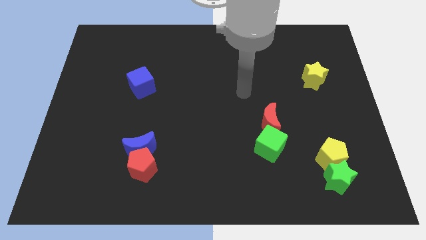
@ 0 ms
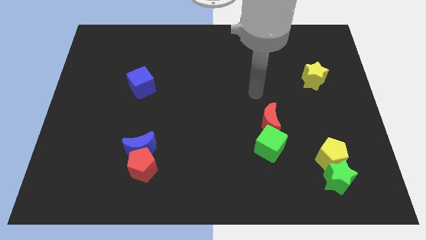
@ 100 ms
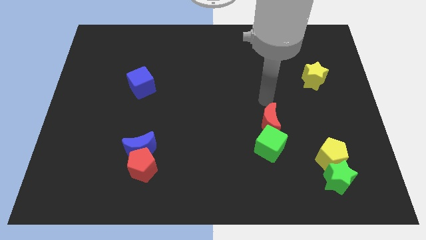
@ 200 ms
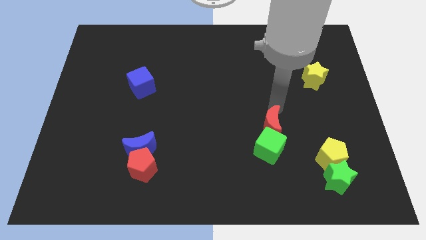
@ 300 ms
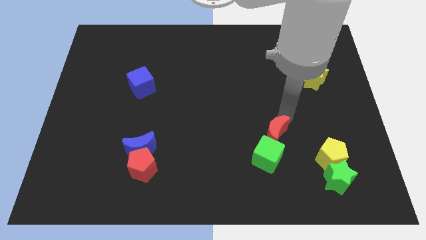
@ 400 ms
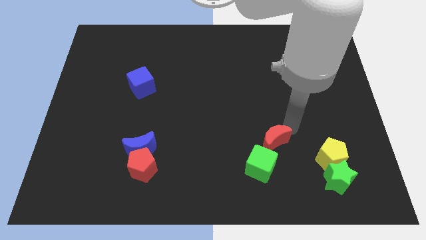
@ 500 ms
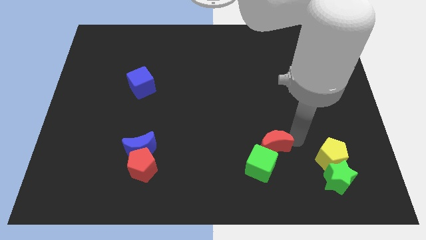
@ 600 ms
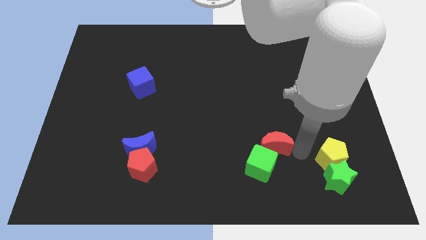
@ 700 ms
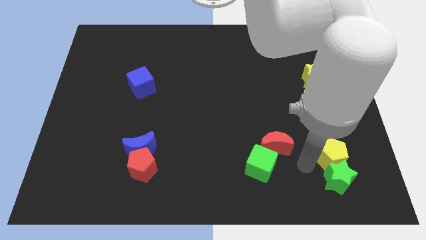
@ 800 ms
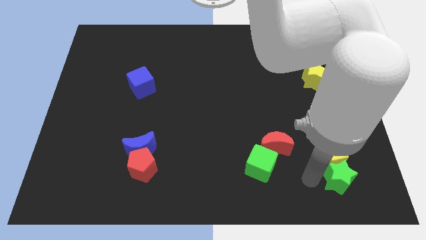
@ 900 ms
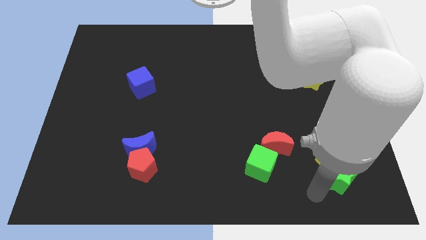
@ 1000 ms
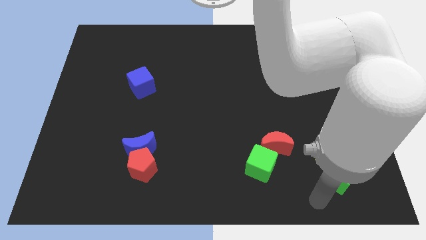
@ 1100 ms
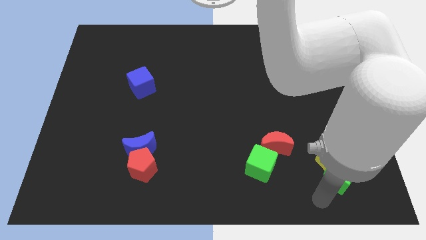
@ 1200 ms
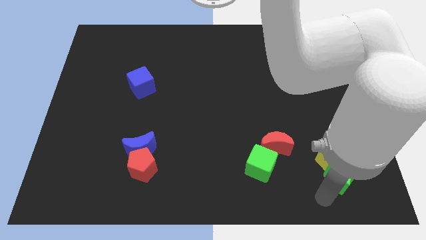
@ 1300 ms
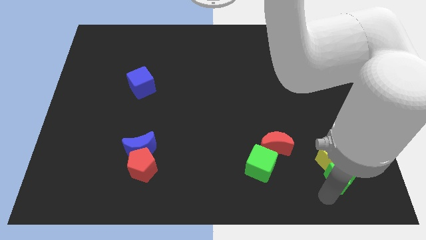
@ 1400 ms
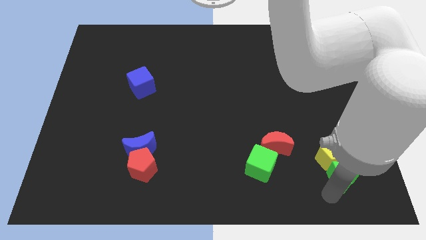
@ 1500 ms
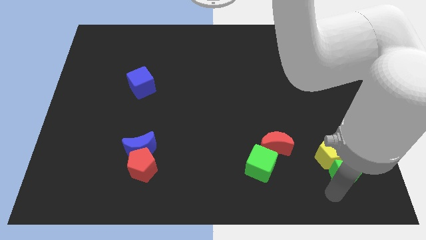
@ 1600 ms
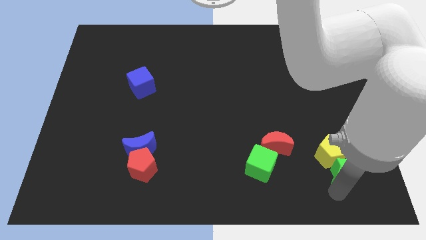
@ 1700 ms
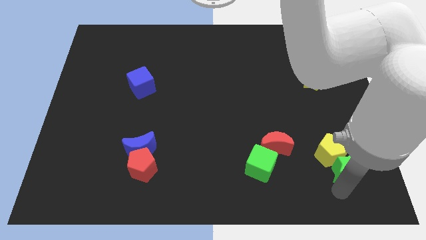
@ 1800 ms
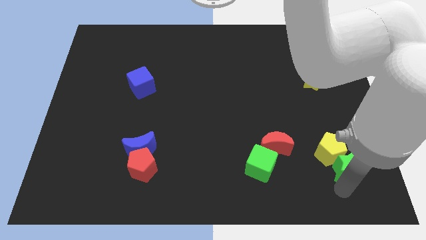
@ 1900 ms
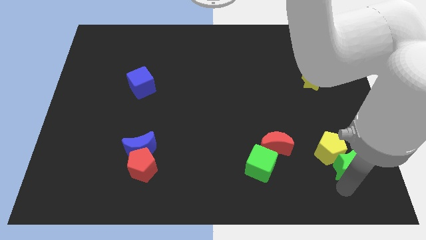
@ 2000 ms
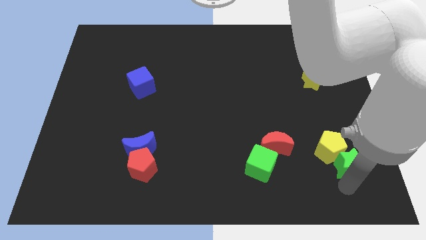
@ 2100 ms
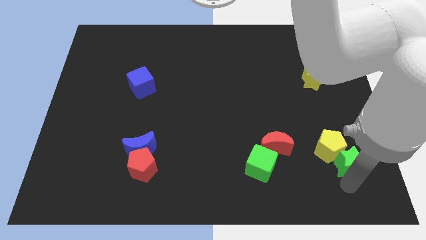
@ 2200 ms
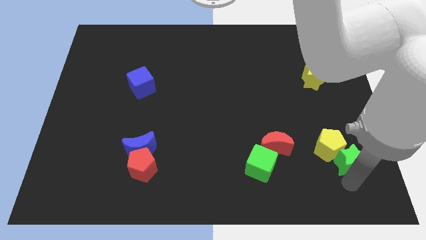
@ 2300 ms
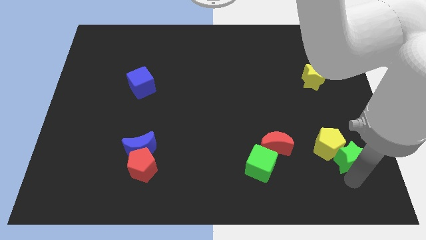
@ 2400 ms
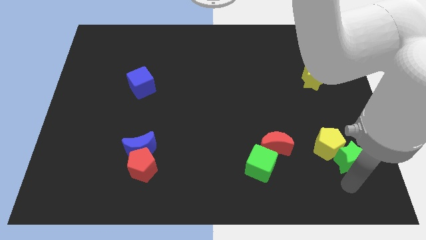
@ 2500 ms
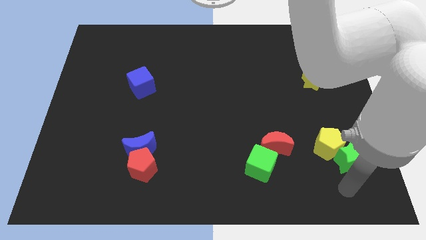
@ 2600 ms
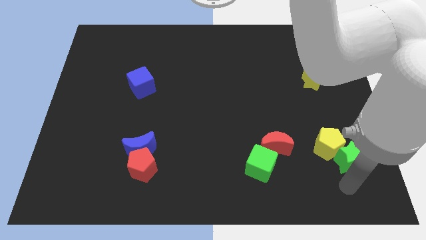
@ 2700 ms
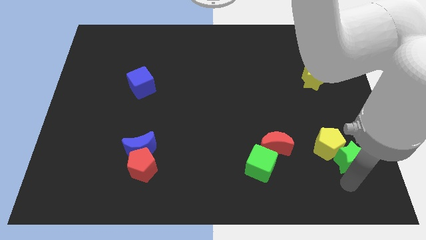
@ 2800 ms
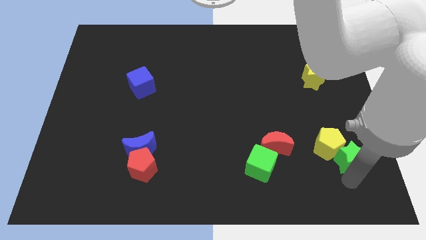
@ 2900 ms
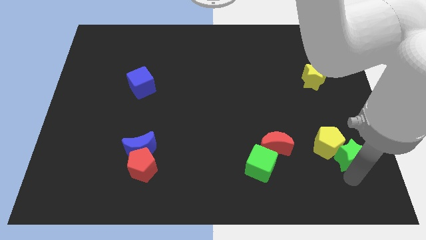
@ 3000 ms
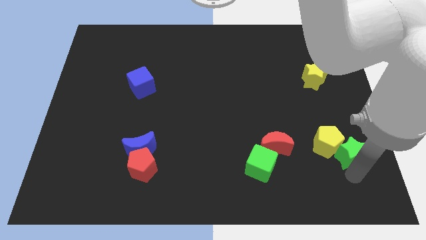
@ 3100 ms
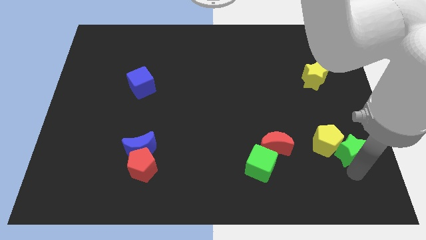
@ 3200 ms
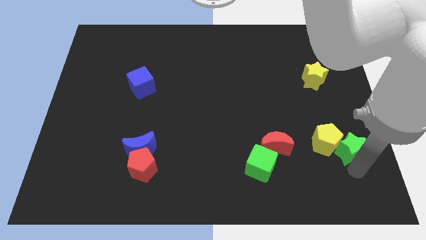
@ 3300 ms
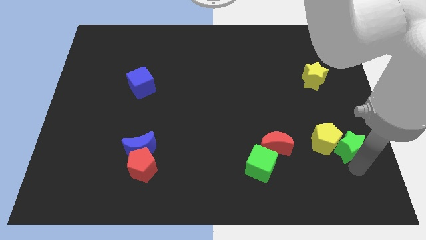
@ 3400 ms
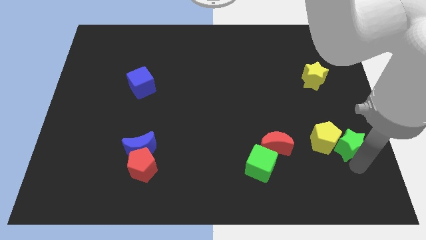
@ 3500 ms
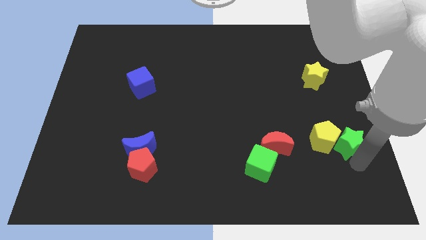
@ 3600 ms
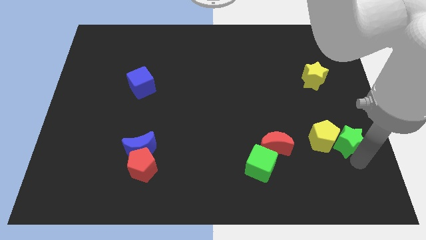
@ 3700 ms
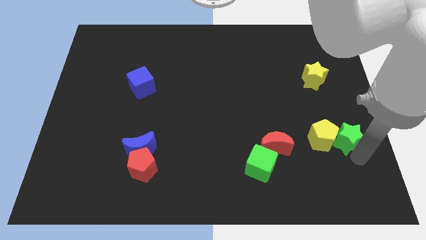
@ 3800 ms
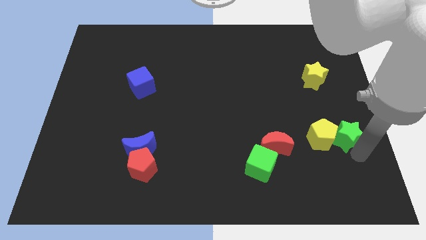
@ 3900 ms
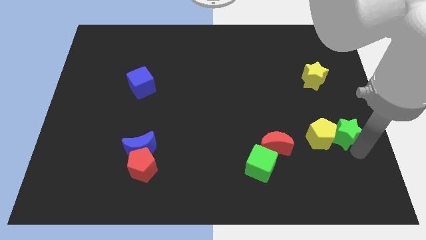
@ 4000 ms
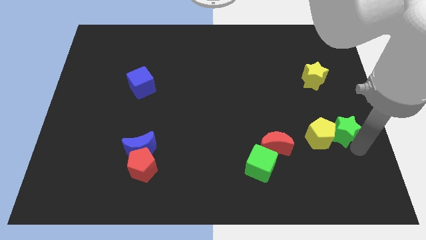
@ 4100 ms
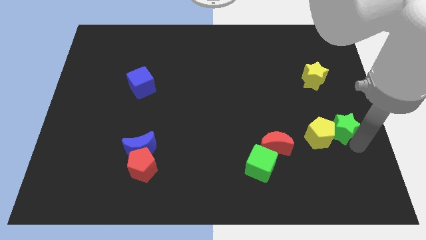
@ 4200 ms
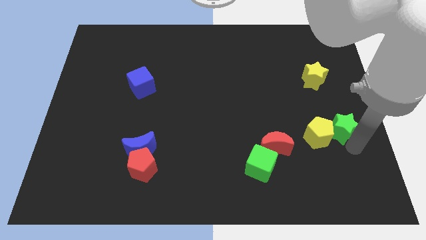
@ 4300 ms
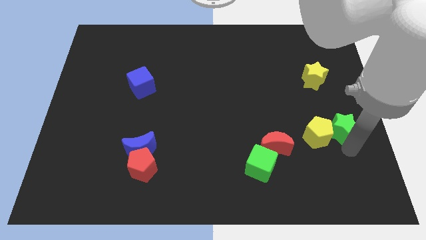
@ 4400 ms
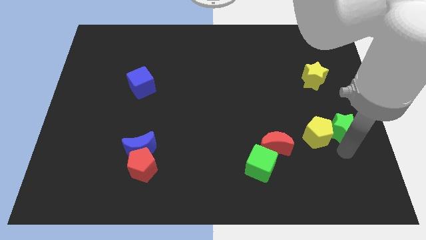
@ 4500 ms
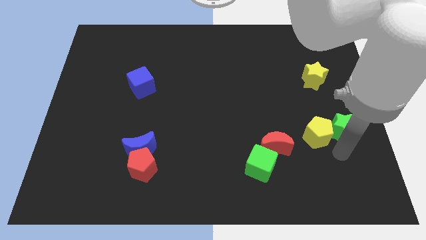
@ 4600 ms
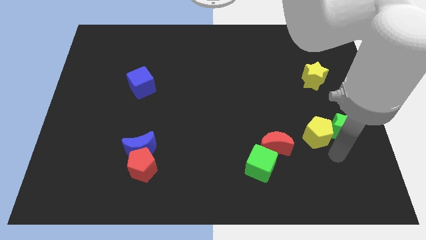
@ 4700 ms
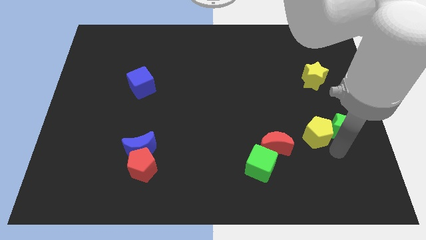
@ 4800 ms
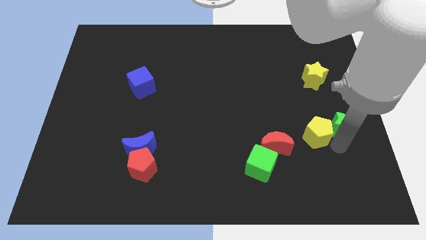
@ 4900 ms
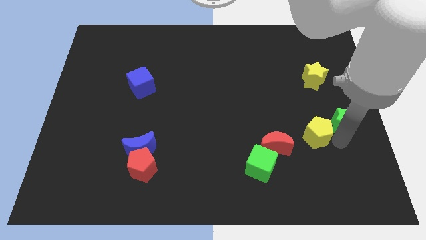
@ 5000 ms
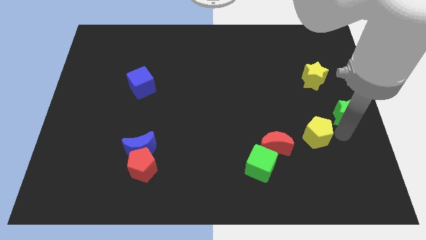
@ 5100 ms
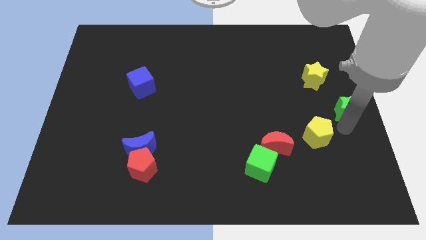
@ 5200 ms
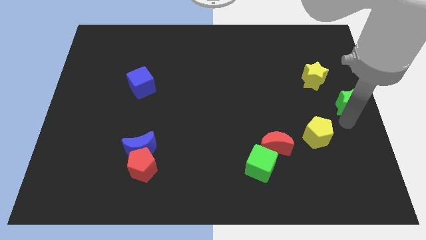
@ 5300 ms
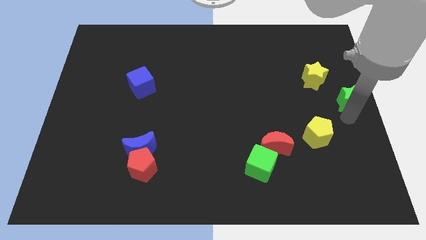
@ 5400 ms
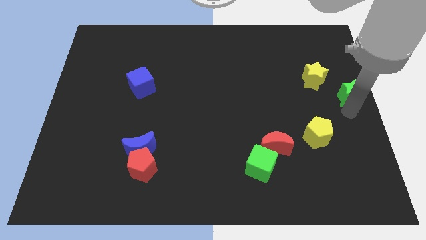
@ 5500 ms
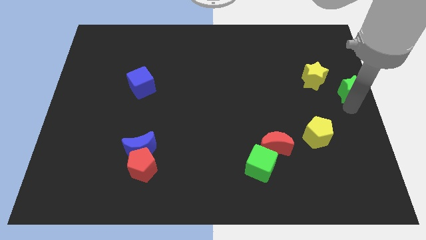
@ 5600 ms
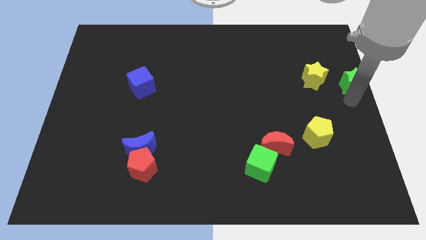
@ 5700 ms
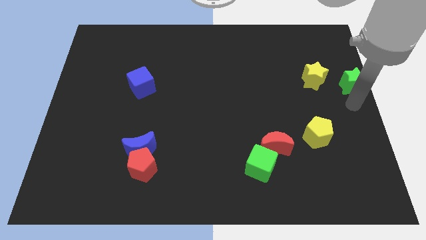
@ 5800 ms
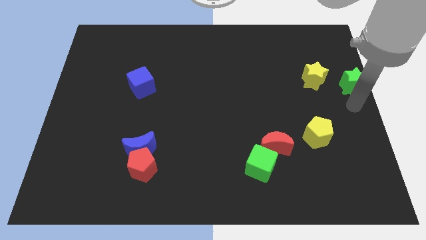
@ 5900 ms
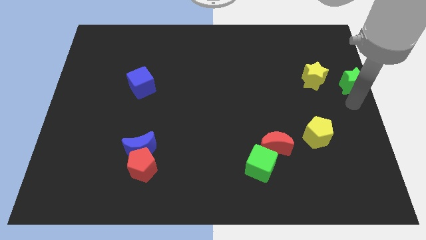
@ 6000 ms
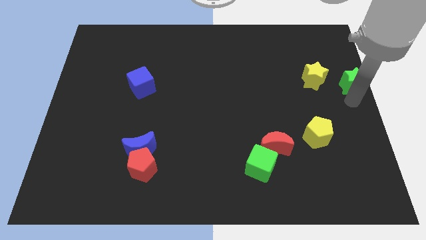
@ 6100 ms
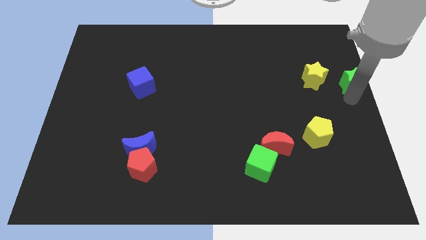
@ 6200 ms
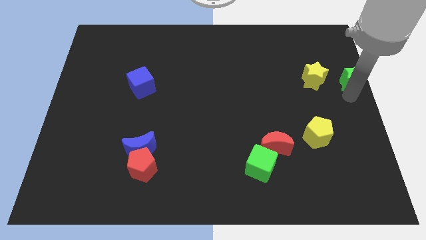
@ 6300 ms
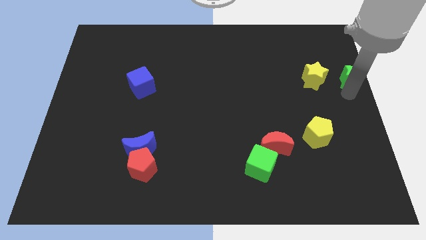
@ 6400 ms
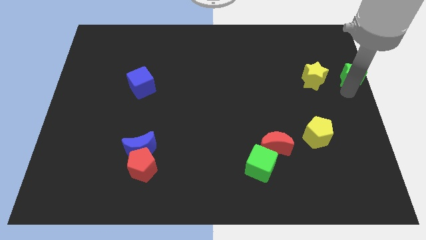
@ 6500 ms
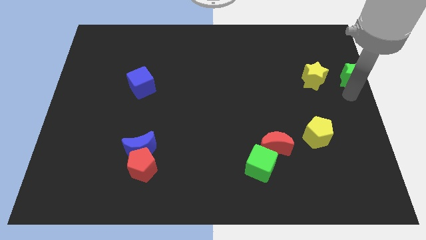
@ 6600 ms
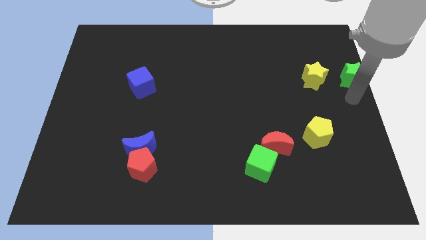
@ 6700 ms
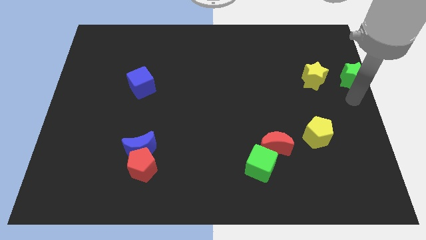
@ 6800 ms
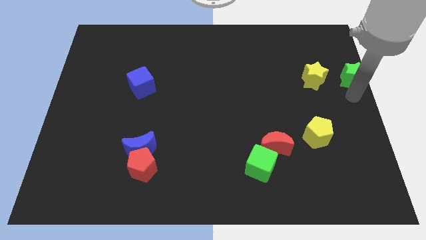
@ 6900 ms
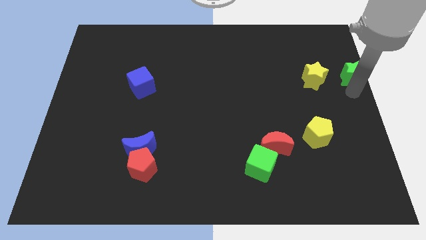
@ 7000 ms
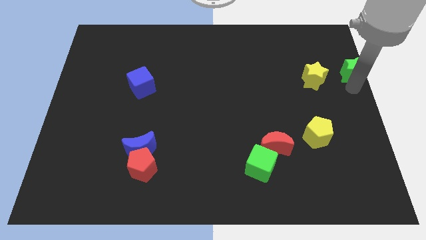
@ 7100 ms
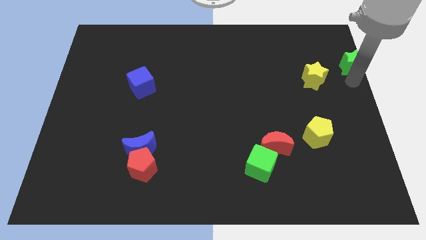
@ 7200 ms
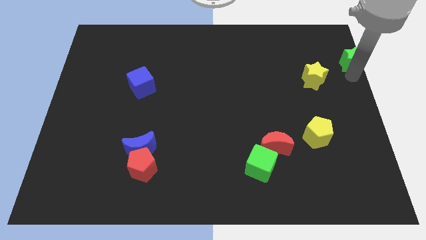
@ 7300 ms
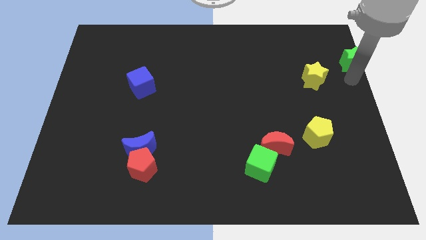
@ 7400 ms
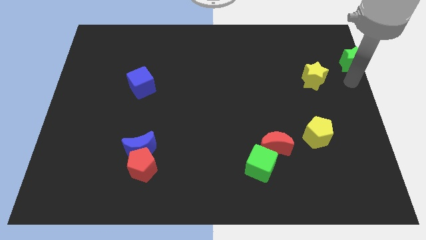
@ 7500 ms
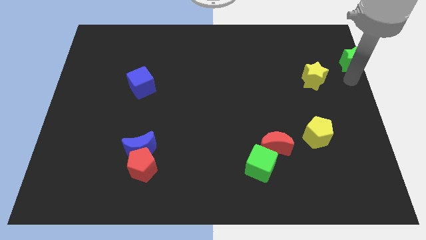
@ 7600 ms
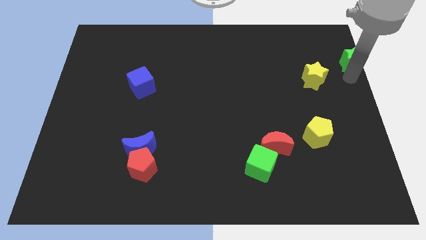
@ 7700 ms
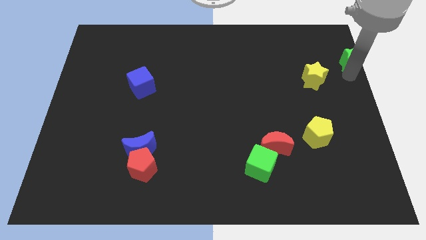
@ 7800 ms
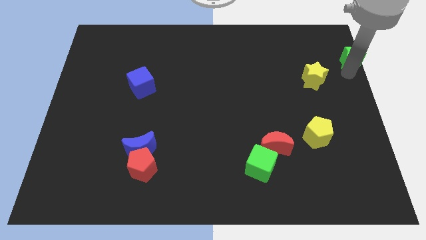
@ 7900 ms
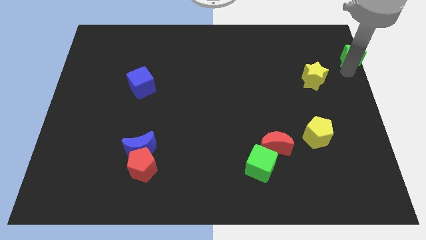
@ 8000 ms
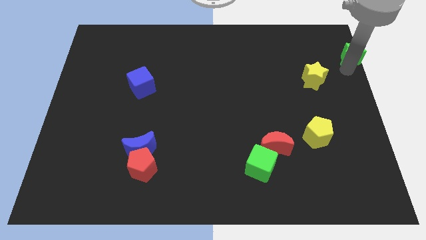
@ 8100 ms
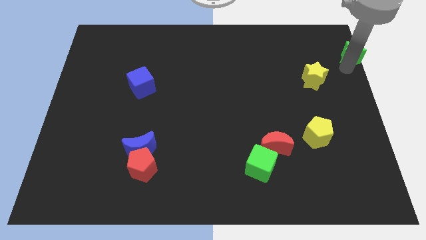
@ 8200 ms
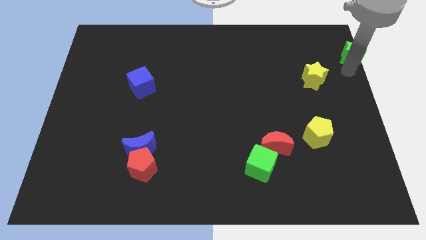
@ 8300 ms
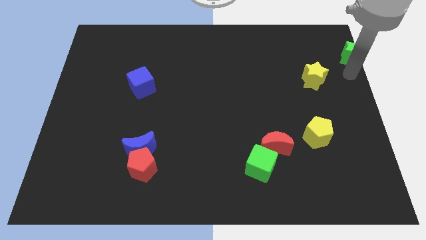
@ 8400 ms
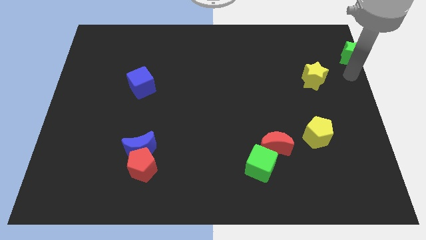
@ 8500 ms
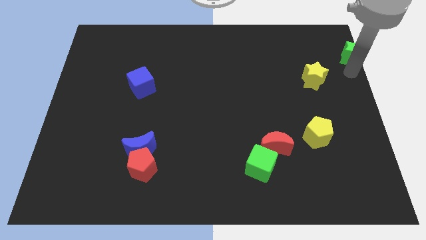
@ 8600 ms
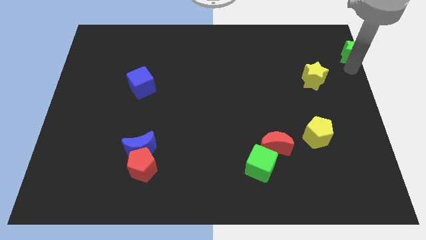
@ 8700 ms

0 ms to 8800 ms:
slide the green star to the top right
